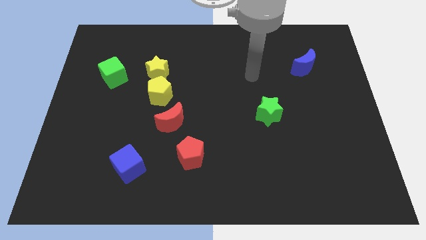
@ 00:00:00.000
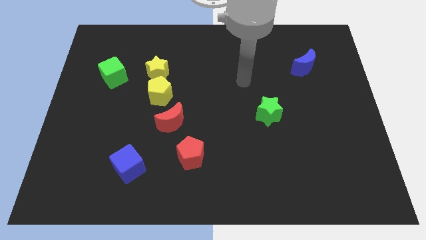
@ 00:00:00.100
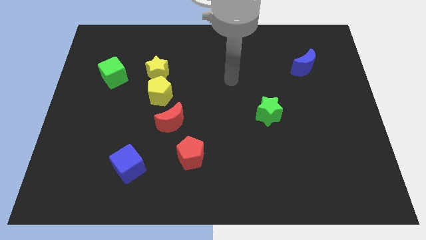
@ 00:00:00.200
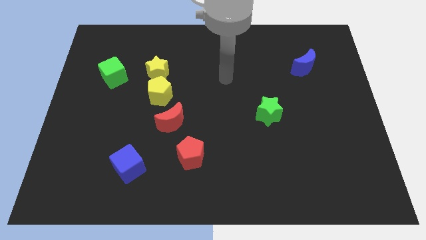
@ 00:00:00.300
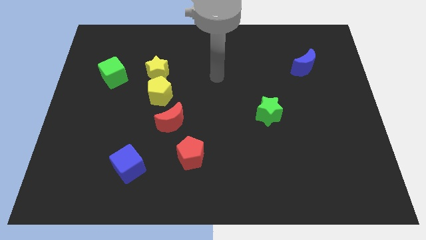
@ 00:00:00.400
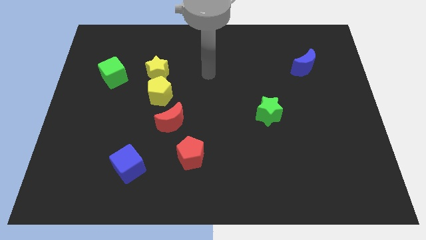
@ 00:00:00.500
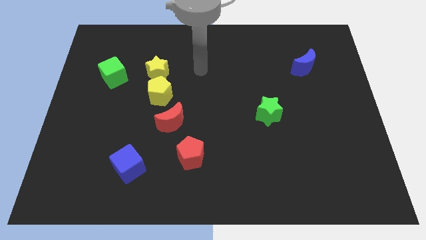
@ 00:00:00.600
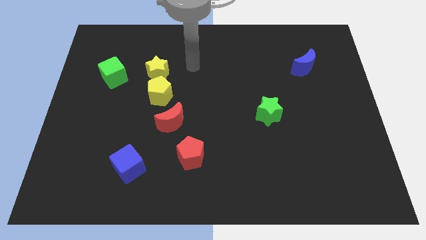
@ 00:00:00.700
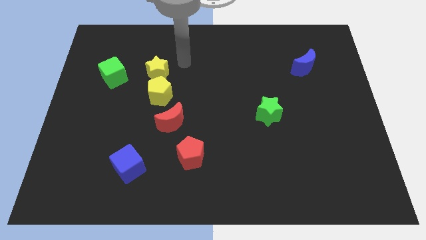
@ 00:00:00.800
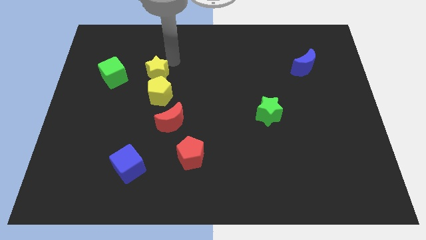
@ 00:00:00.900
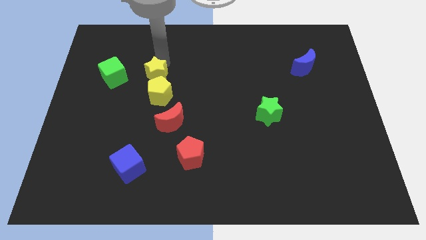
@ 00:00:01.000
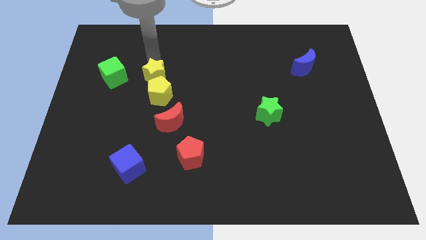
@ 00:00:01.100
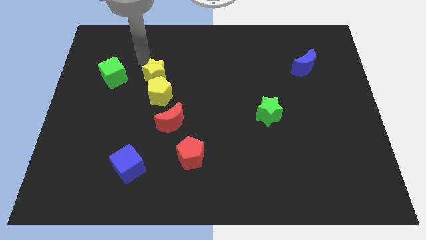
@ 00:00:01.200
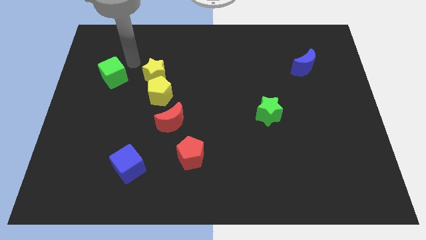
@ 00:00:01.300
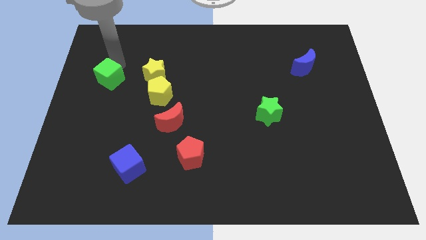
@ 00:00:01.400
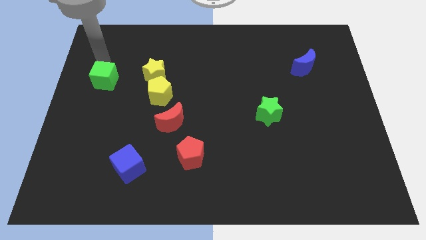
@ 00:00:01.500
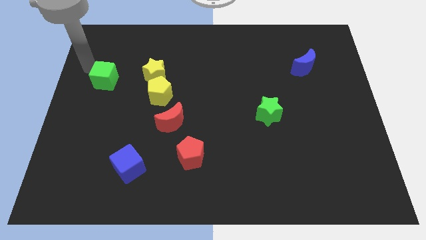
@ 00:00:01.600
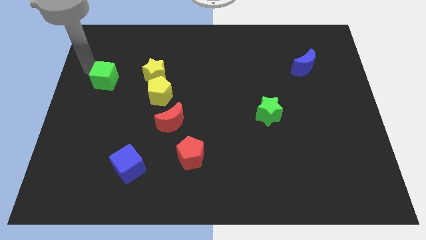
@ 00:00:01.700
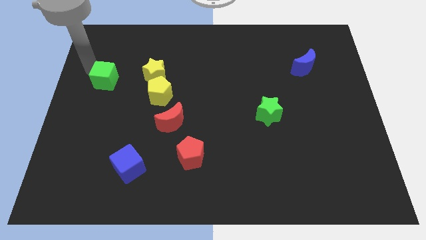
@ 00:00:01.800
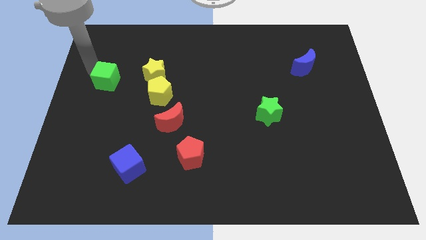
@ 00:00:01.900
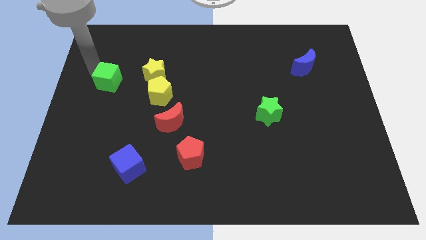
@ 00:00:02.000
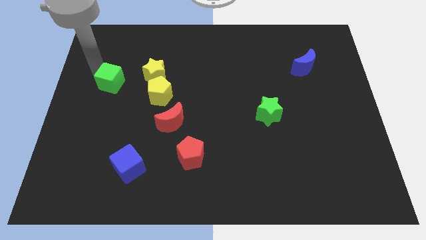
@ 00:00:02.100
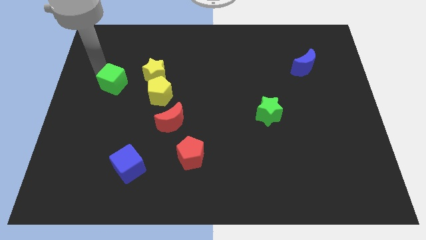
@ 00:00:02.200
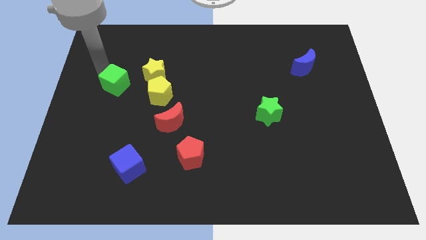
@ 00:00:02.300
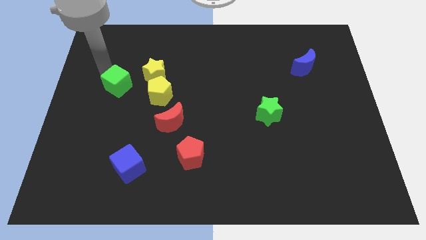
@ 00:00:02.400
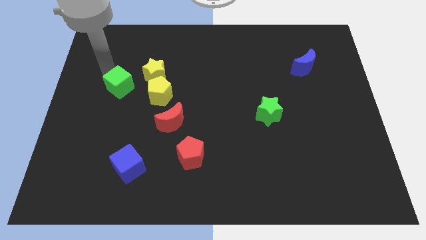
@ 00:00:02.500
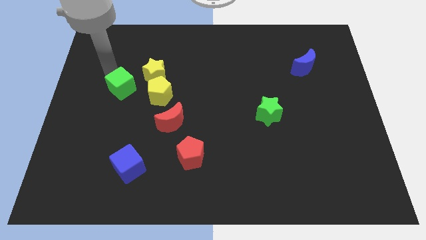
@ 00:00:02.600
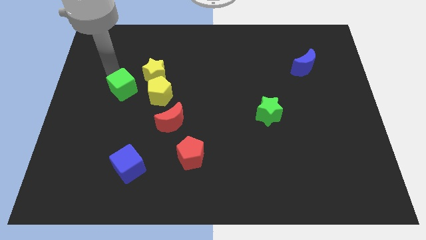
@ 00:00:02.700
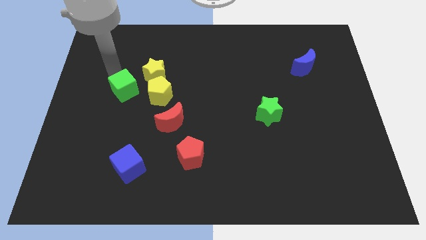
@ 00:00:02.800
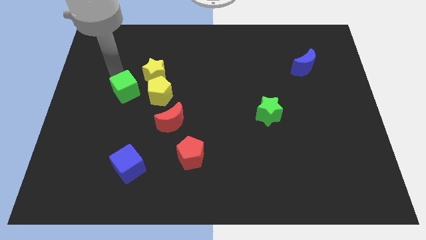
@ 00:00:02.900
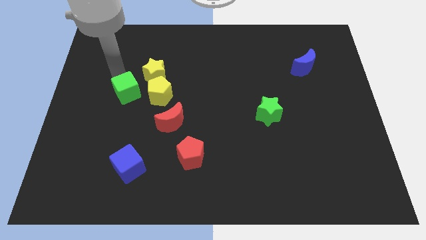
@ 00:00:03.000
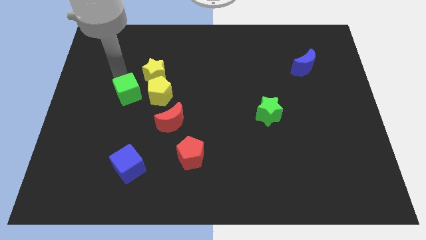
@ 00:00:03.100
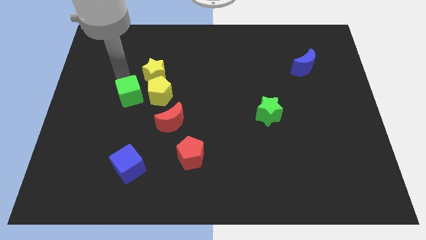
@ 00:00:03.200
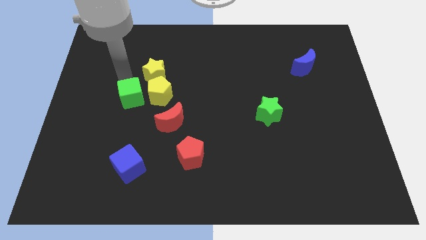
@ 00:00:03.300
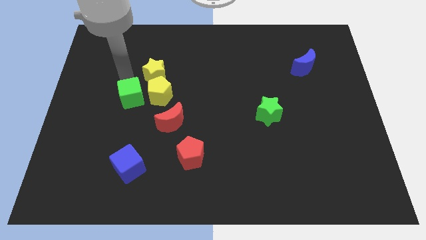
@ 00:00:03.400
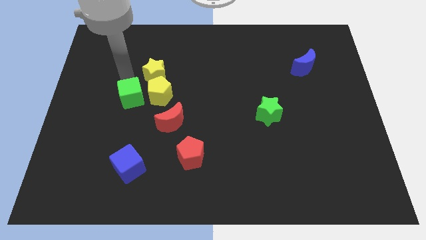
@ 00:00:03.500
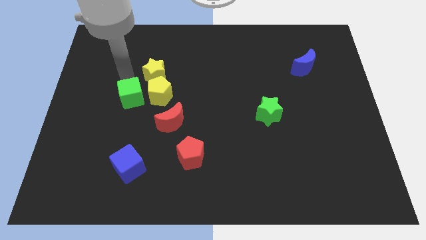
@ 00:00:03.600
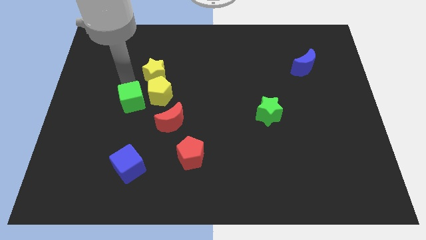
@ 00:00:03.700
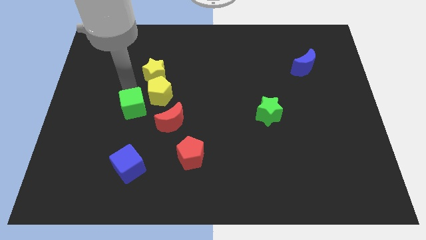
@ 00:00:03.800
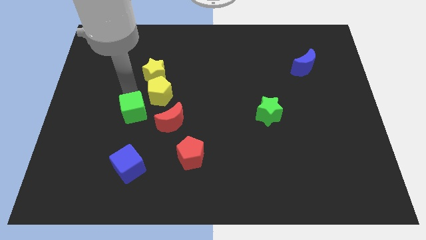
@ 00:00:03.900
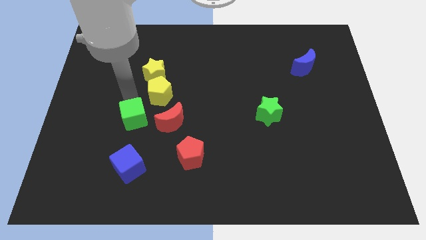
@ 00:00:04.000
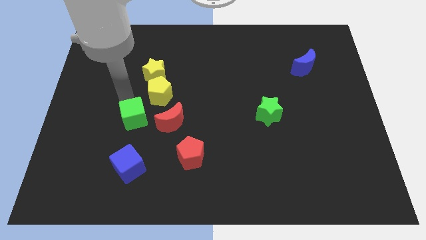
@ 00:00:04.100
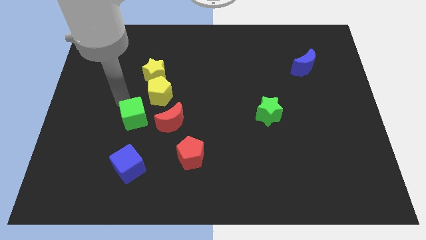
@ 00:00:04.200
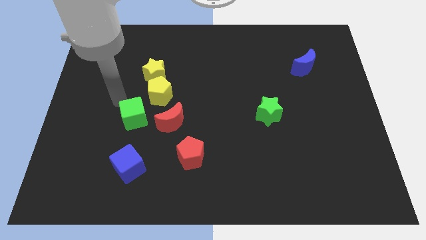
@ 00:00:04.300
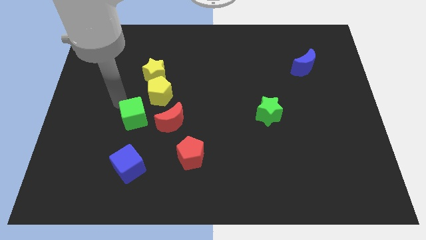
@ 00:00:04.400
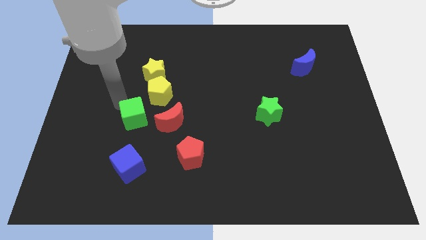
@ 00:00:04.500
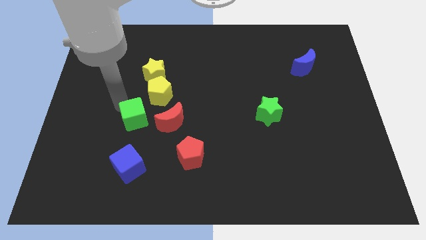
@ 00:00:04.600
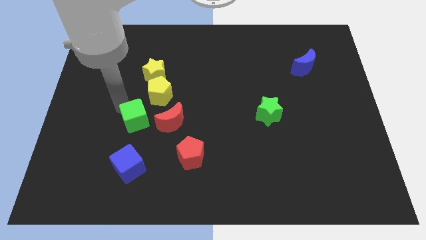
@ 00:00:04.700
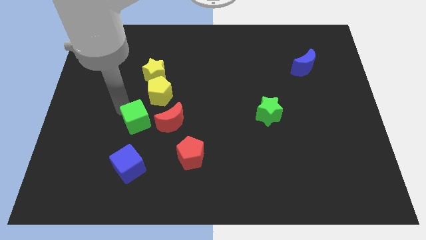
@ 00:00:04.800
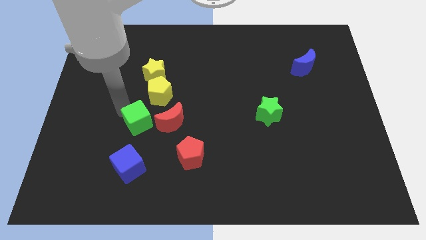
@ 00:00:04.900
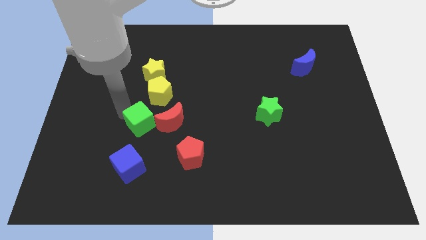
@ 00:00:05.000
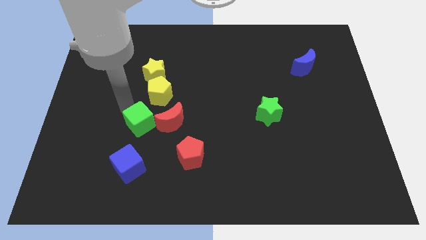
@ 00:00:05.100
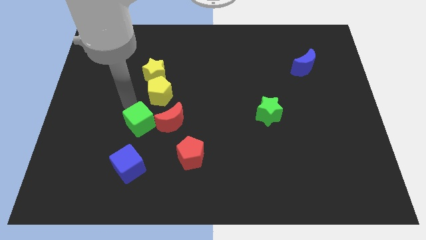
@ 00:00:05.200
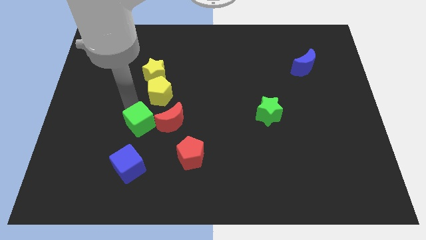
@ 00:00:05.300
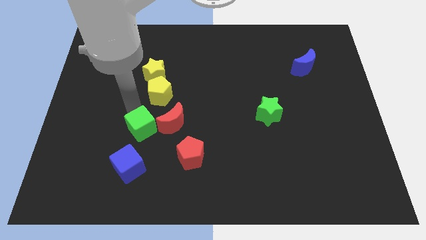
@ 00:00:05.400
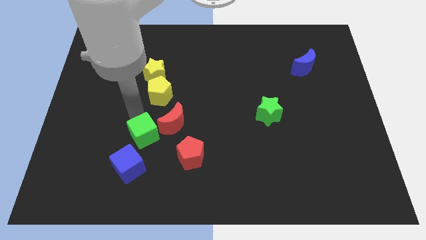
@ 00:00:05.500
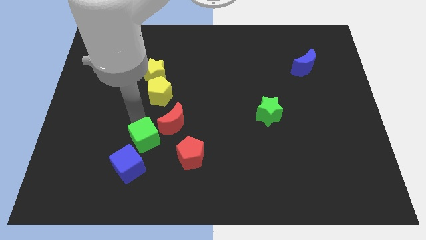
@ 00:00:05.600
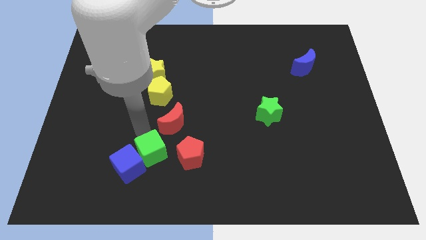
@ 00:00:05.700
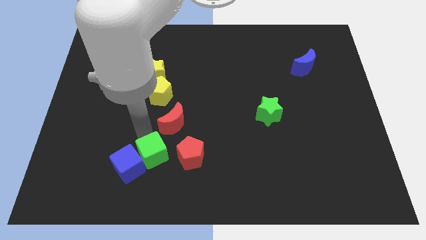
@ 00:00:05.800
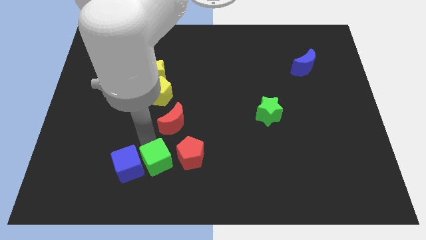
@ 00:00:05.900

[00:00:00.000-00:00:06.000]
put the green cube diagonally down and to the left of the red pentagon

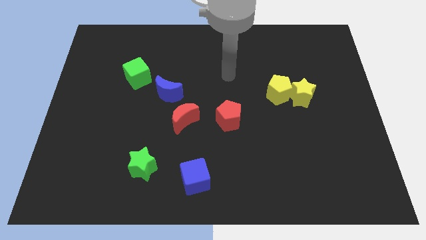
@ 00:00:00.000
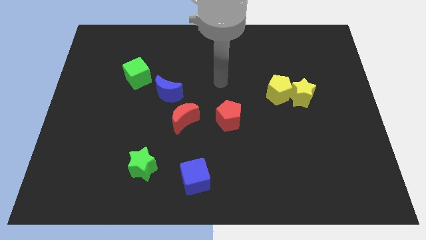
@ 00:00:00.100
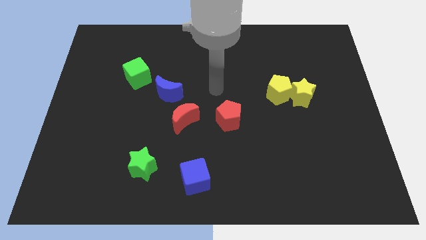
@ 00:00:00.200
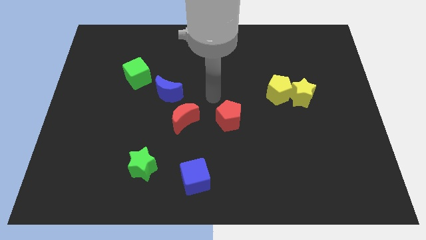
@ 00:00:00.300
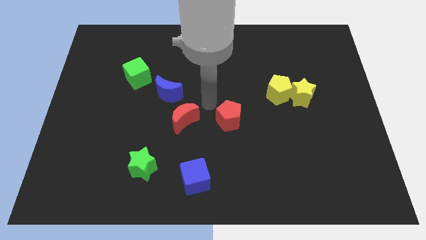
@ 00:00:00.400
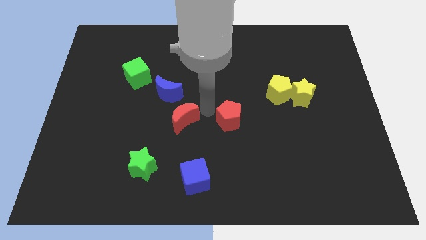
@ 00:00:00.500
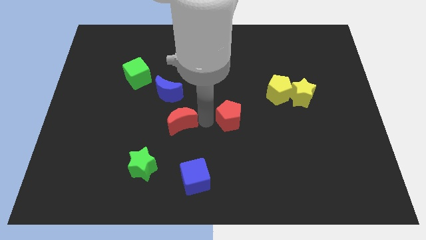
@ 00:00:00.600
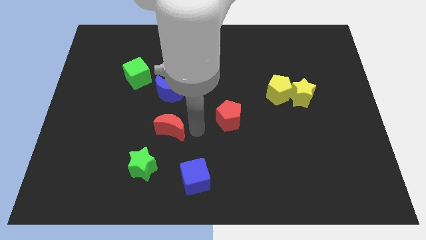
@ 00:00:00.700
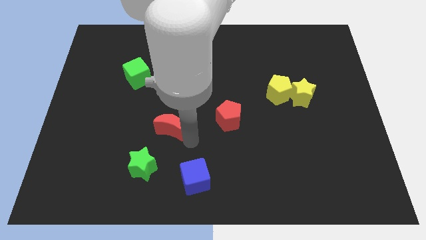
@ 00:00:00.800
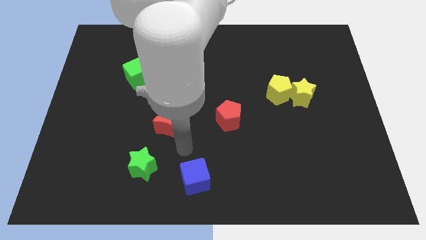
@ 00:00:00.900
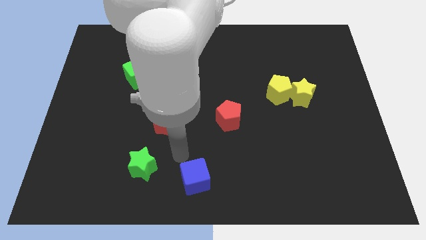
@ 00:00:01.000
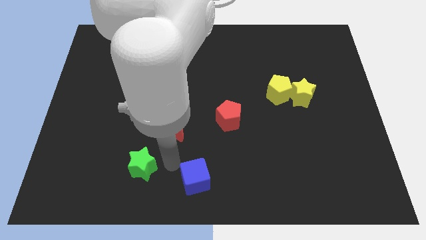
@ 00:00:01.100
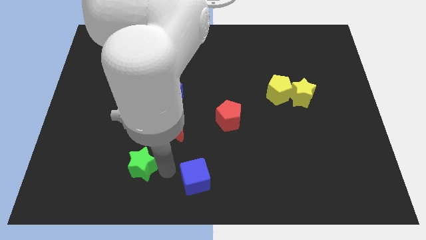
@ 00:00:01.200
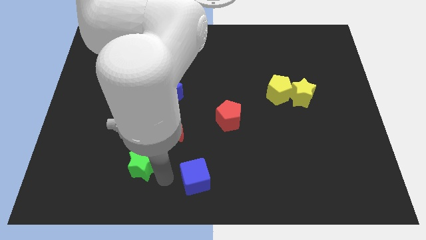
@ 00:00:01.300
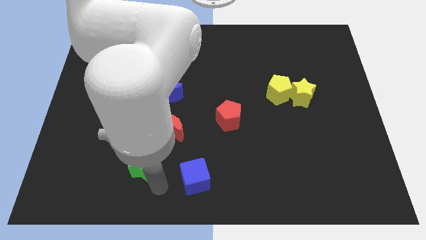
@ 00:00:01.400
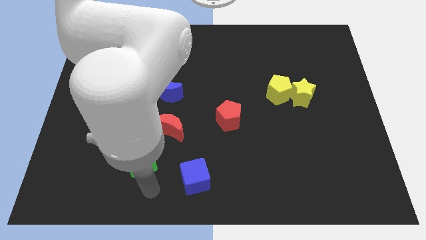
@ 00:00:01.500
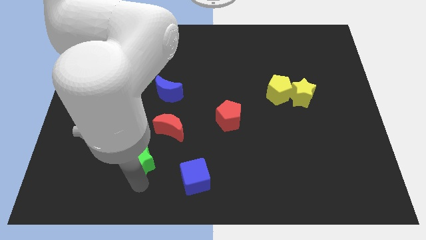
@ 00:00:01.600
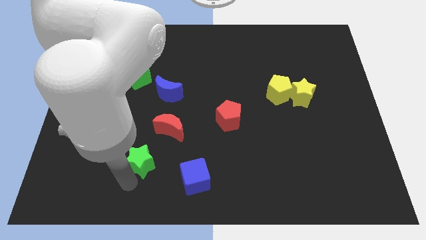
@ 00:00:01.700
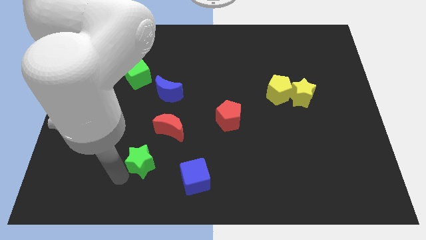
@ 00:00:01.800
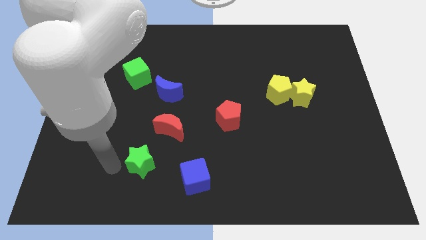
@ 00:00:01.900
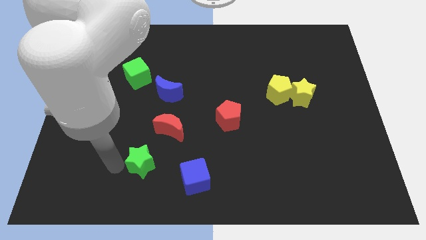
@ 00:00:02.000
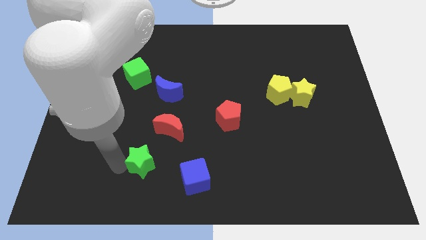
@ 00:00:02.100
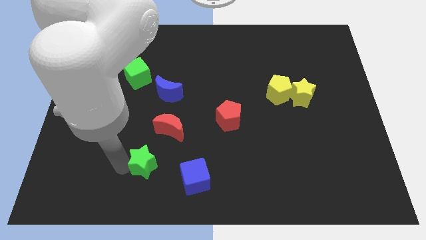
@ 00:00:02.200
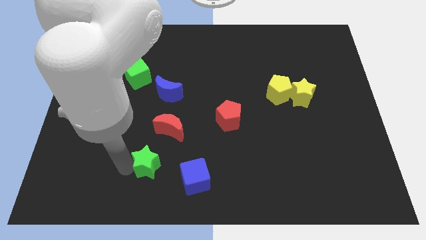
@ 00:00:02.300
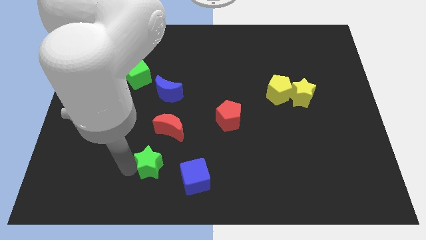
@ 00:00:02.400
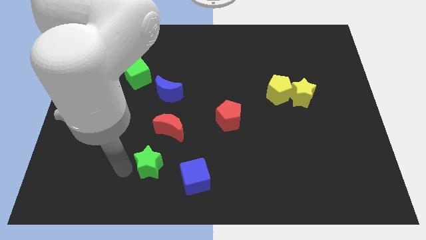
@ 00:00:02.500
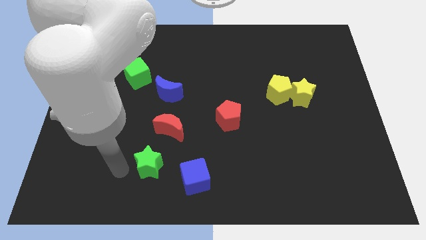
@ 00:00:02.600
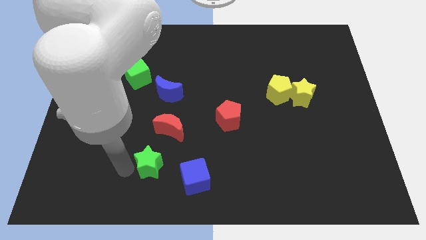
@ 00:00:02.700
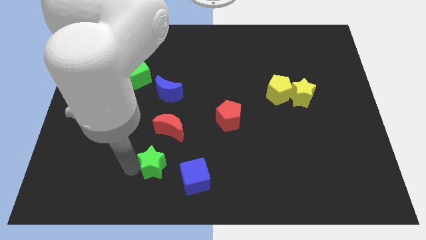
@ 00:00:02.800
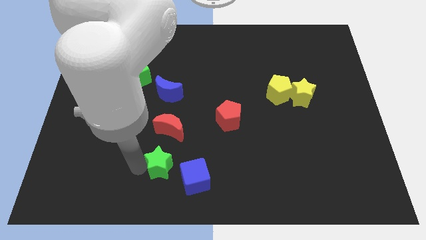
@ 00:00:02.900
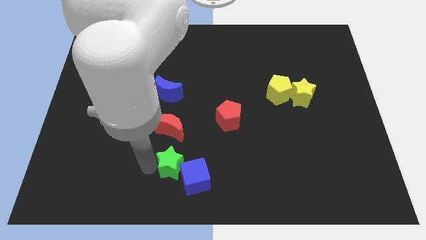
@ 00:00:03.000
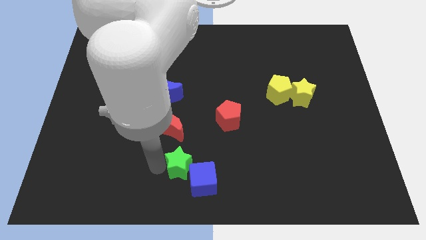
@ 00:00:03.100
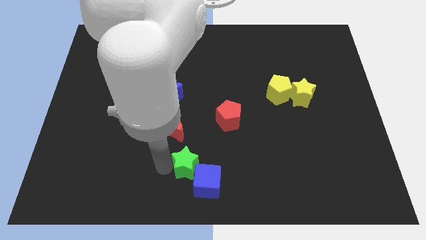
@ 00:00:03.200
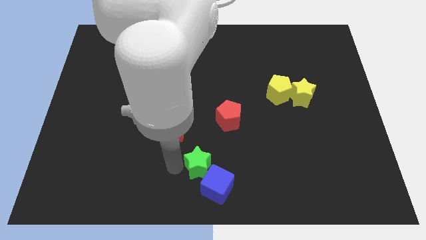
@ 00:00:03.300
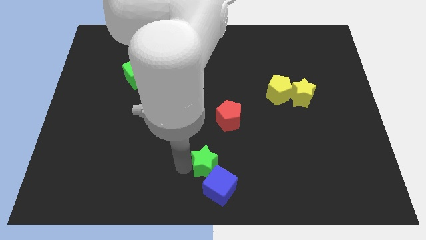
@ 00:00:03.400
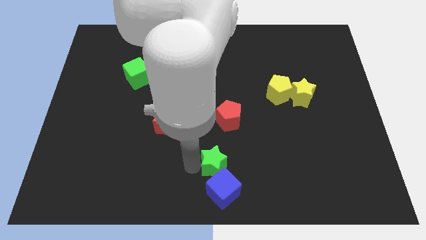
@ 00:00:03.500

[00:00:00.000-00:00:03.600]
move the green star to the bottom of the red pentagon
